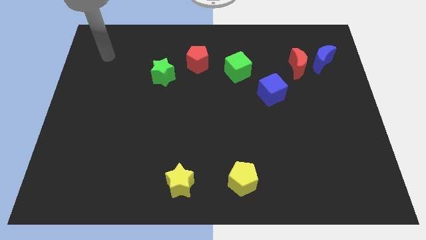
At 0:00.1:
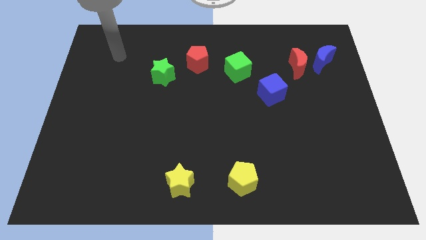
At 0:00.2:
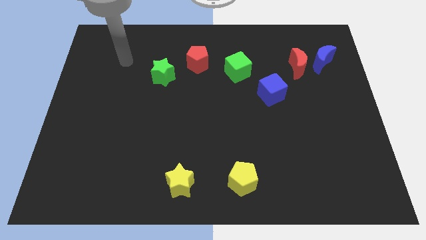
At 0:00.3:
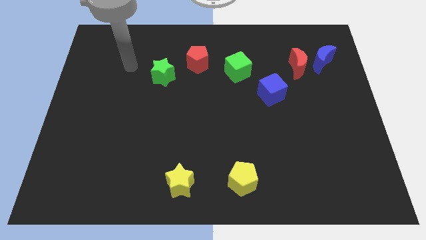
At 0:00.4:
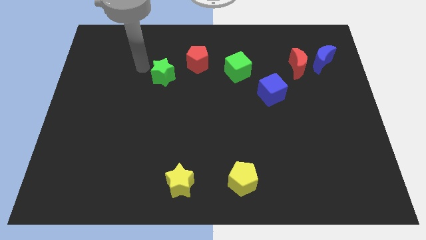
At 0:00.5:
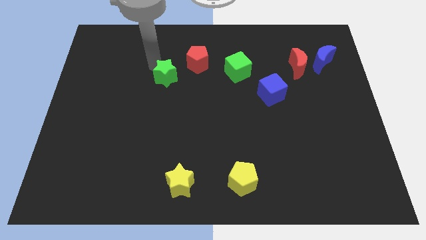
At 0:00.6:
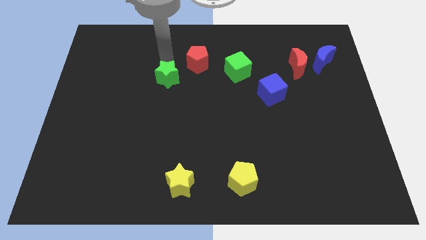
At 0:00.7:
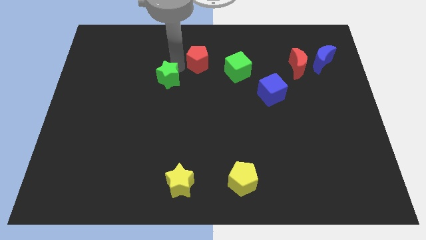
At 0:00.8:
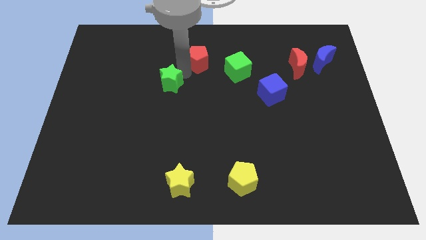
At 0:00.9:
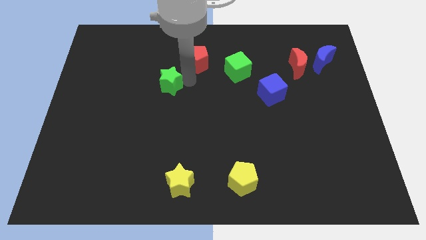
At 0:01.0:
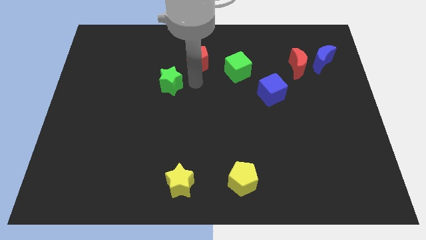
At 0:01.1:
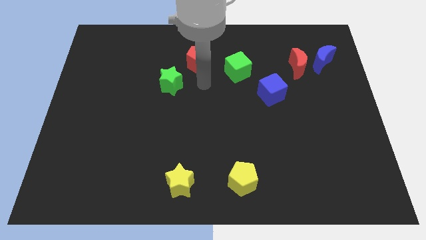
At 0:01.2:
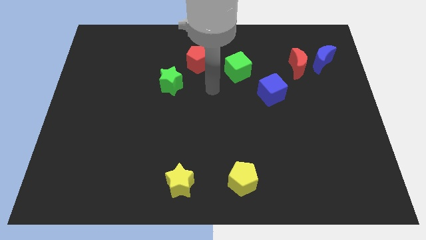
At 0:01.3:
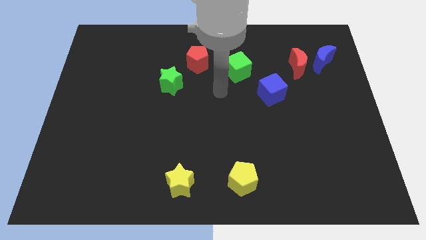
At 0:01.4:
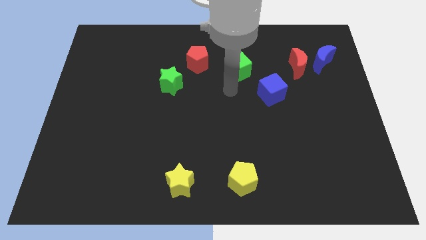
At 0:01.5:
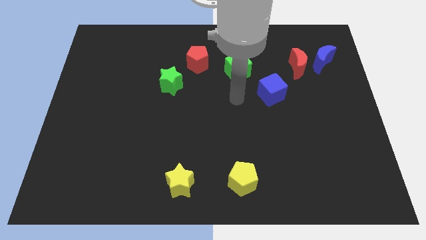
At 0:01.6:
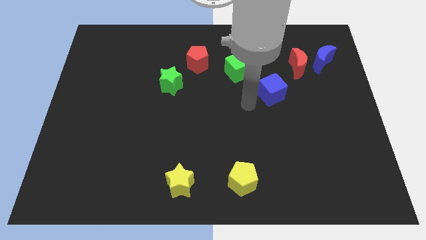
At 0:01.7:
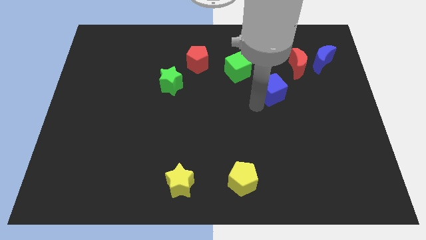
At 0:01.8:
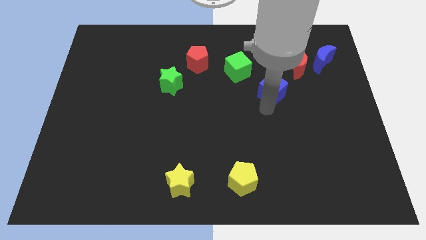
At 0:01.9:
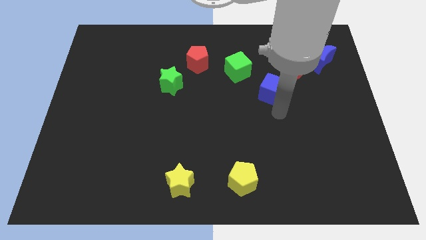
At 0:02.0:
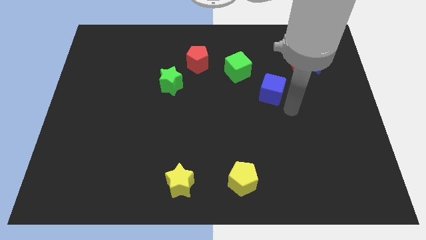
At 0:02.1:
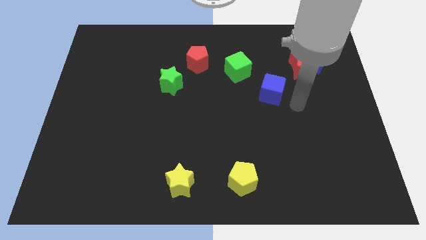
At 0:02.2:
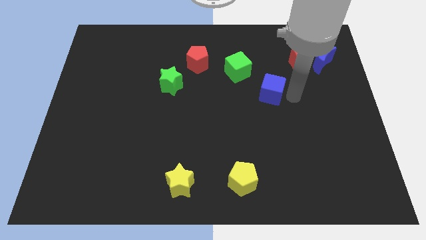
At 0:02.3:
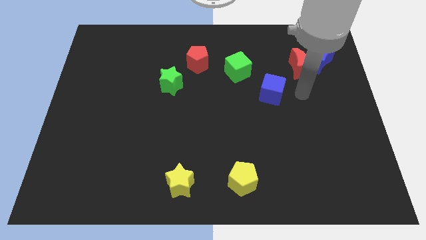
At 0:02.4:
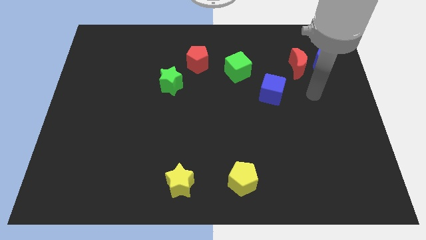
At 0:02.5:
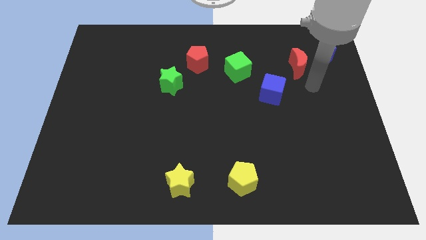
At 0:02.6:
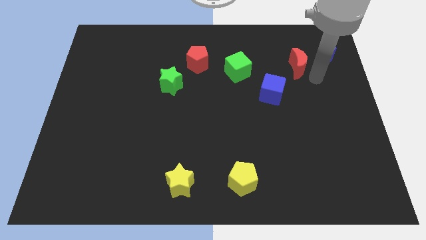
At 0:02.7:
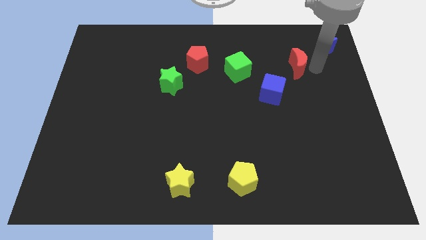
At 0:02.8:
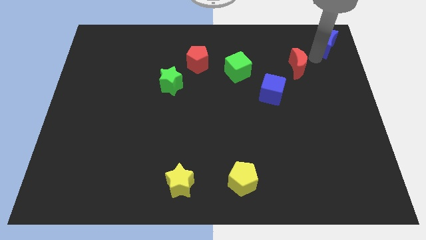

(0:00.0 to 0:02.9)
pull the red moon apart from the blue moon

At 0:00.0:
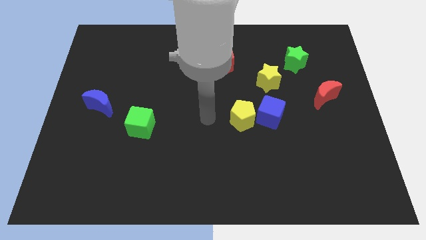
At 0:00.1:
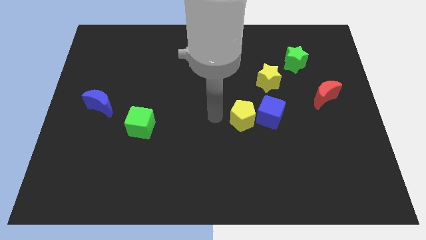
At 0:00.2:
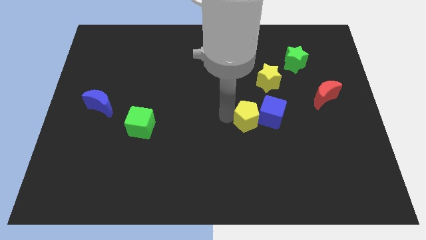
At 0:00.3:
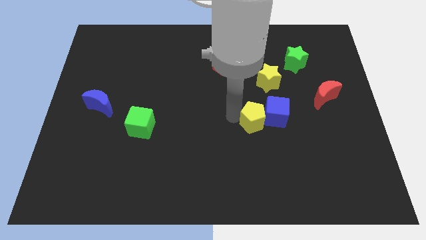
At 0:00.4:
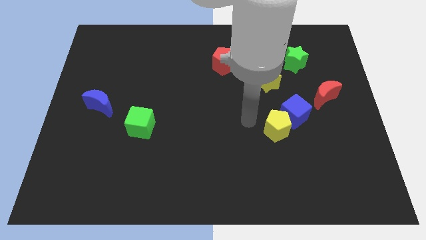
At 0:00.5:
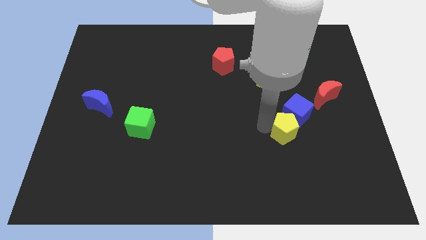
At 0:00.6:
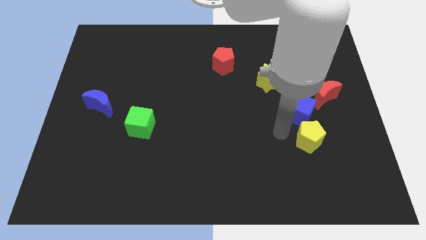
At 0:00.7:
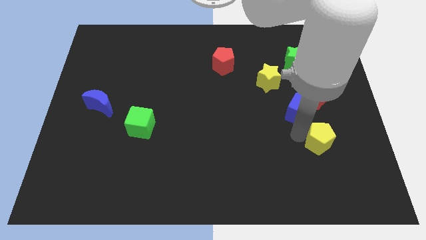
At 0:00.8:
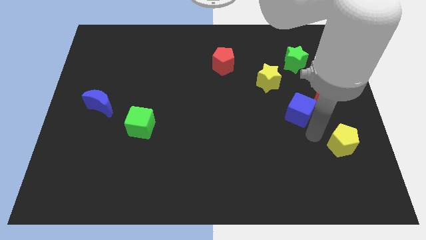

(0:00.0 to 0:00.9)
separate the blue cube from the yellow pentagon

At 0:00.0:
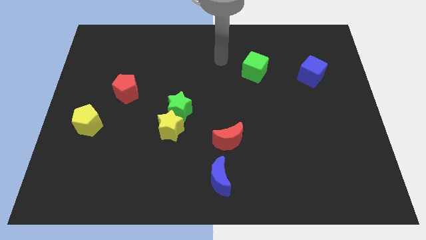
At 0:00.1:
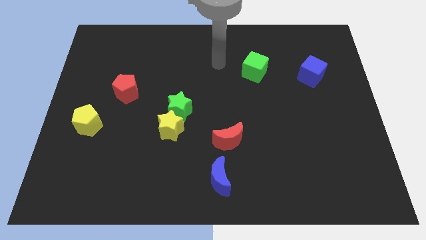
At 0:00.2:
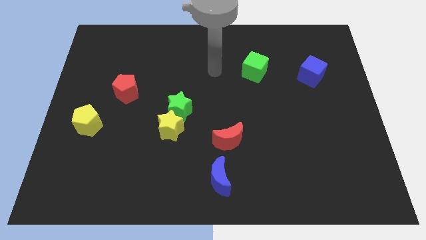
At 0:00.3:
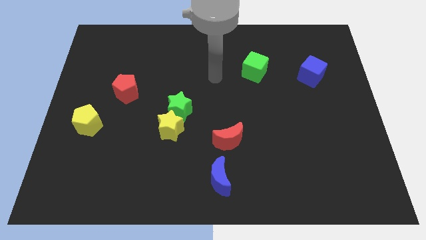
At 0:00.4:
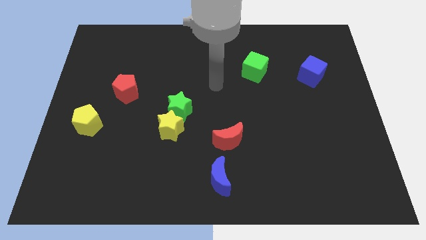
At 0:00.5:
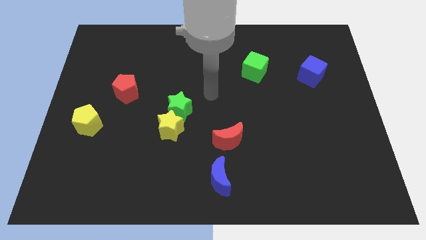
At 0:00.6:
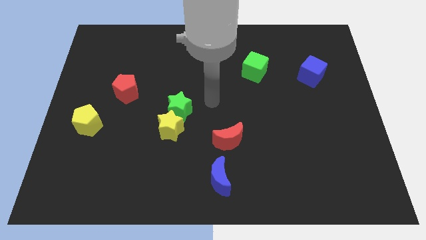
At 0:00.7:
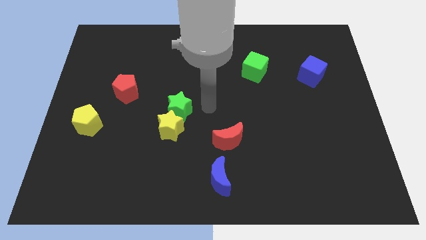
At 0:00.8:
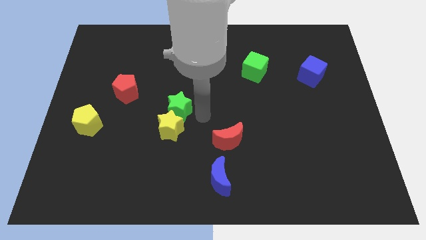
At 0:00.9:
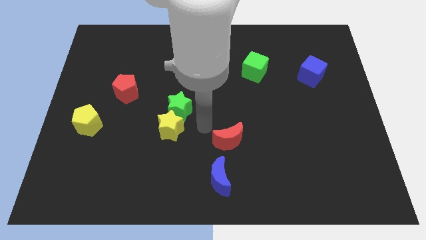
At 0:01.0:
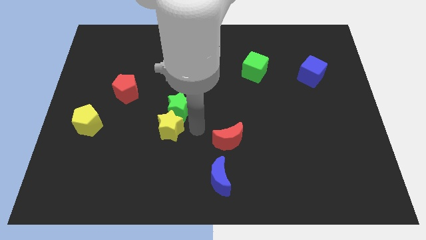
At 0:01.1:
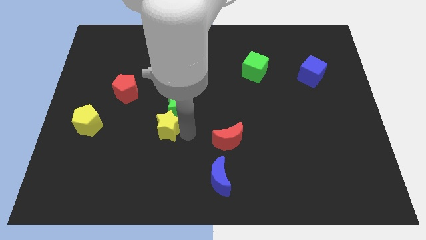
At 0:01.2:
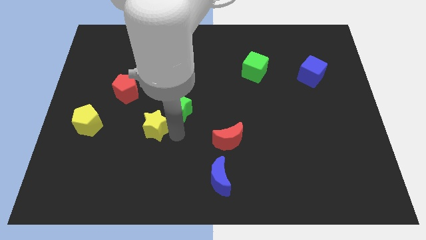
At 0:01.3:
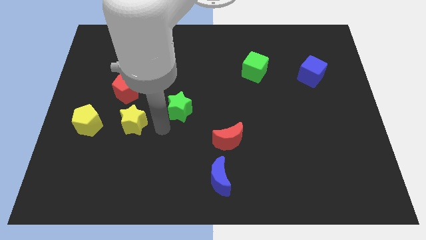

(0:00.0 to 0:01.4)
separate the green star from the yellow star

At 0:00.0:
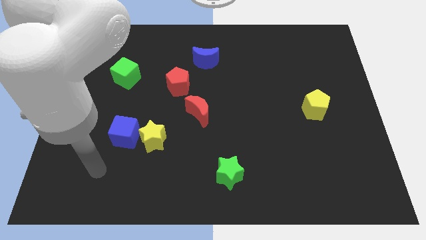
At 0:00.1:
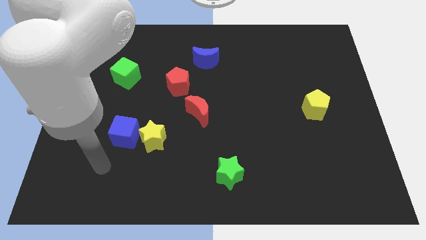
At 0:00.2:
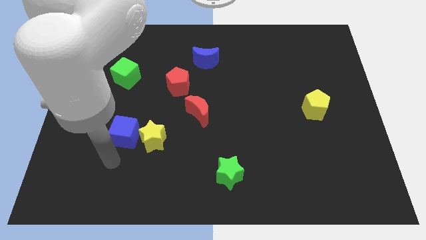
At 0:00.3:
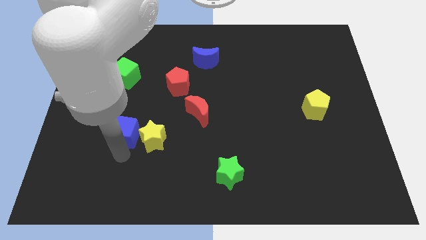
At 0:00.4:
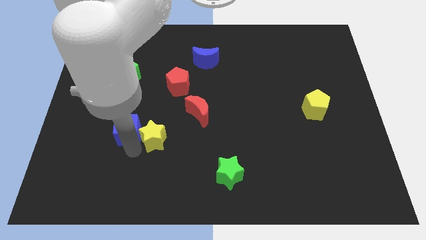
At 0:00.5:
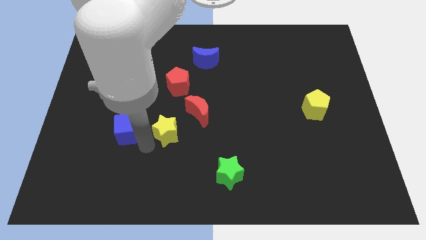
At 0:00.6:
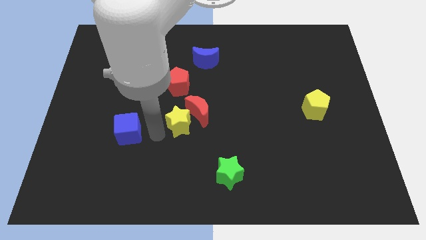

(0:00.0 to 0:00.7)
pull the blue cube apart from the yellow star

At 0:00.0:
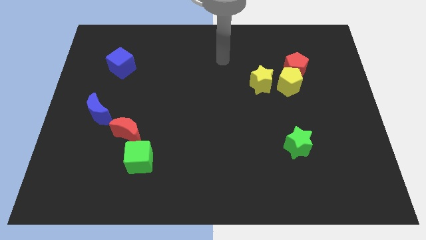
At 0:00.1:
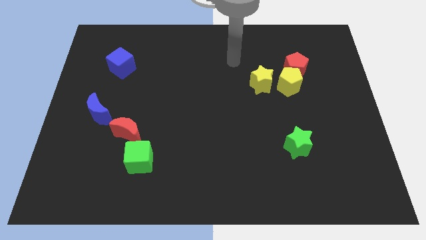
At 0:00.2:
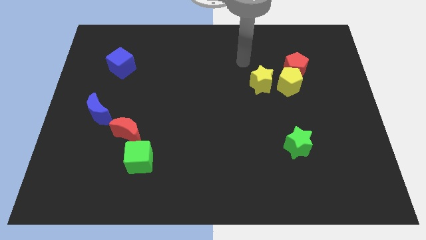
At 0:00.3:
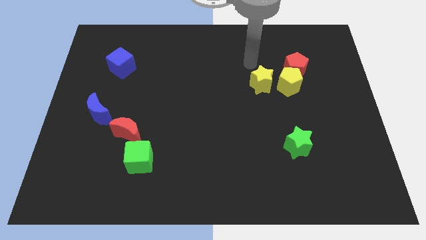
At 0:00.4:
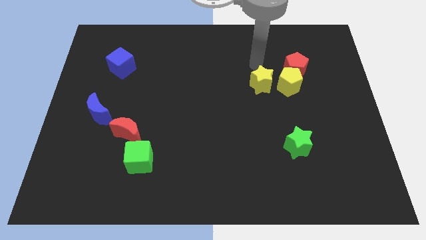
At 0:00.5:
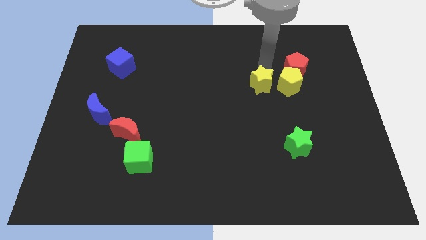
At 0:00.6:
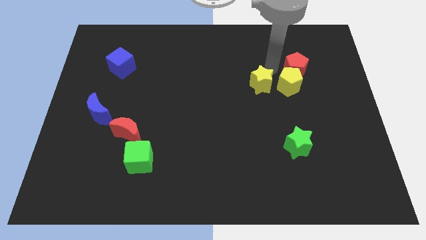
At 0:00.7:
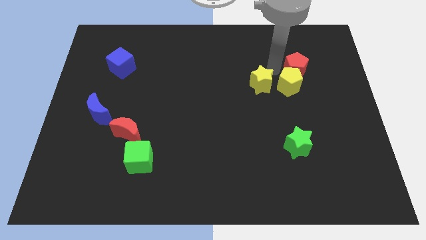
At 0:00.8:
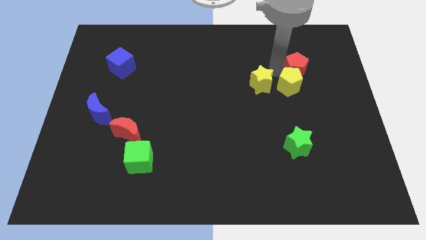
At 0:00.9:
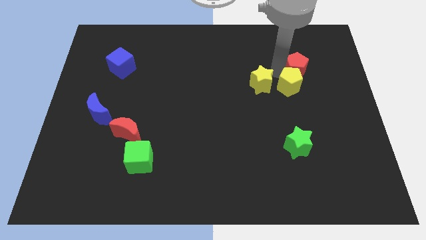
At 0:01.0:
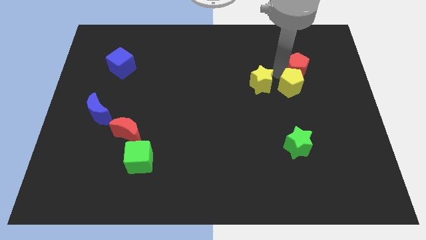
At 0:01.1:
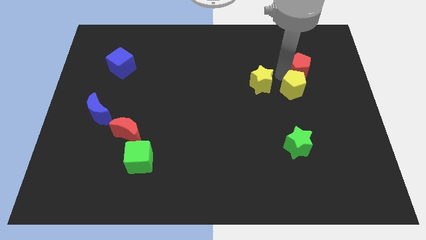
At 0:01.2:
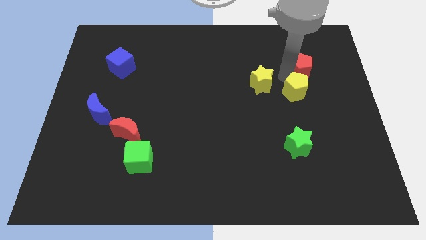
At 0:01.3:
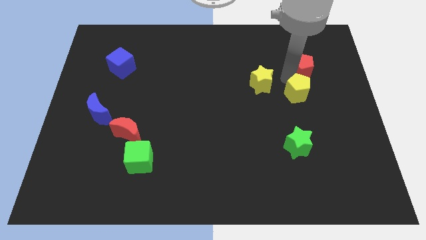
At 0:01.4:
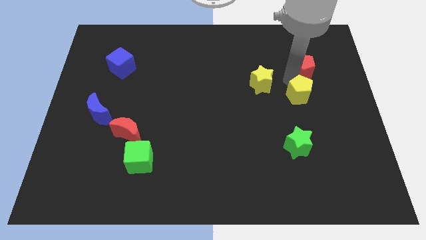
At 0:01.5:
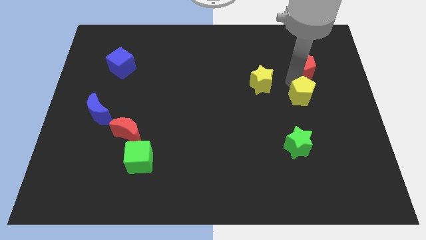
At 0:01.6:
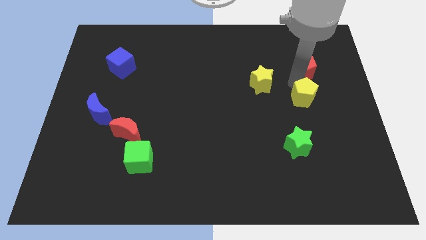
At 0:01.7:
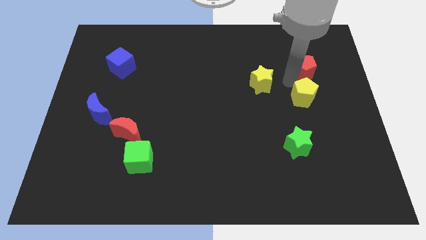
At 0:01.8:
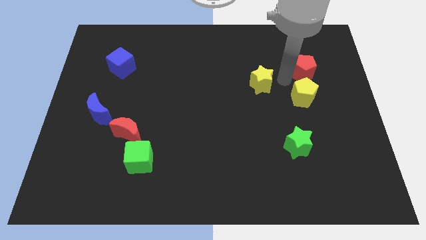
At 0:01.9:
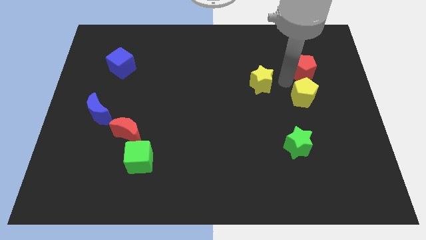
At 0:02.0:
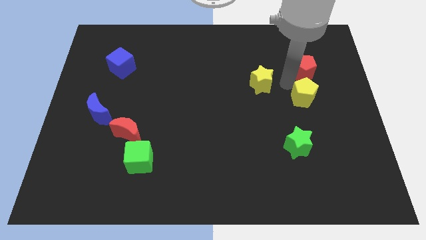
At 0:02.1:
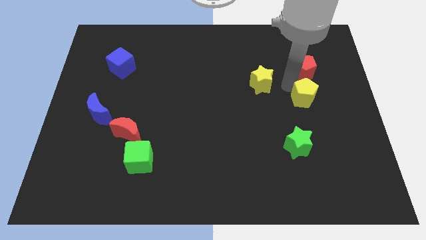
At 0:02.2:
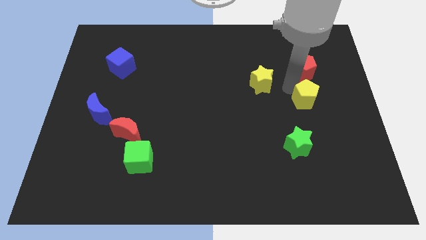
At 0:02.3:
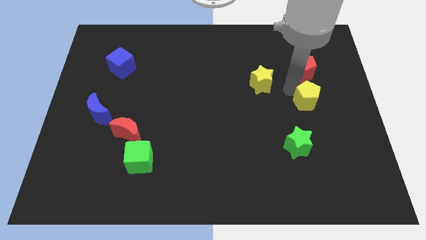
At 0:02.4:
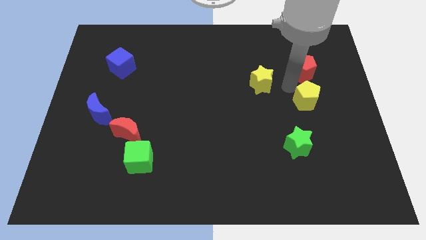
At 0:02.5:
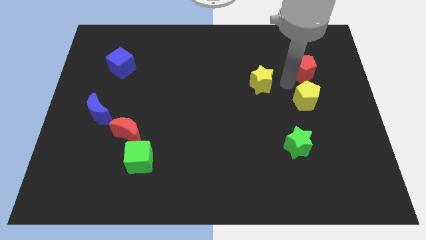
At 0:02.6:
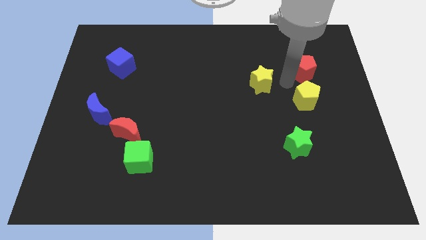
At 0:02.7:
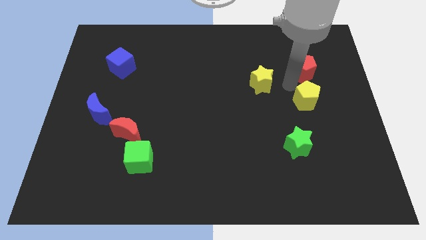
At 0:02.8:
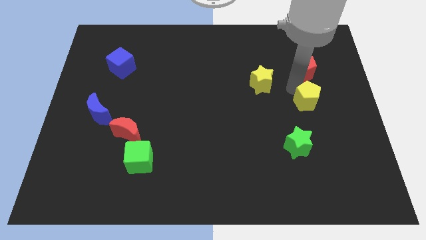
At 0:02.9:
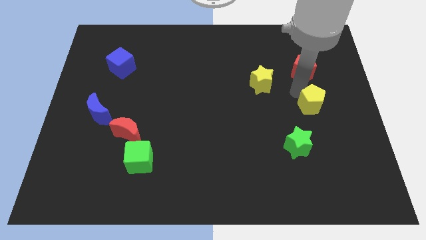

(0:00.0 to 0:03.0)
move the yellow pentagon away from the red pentagon and yellow star

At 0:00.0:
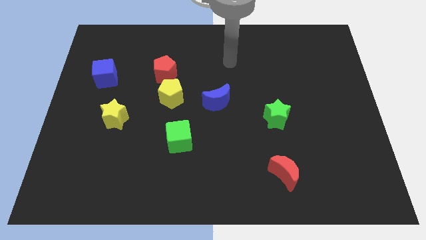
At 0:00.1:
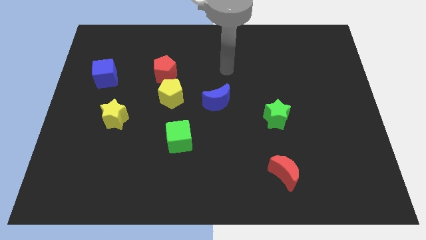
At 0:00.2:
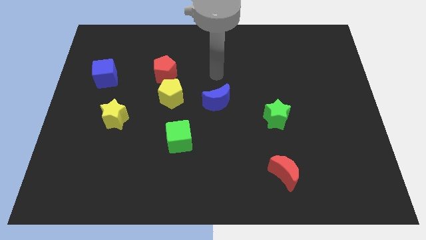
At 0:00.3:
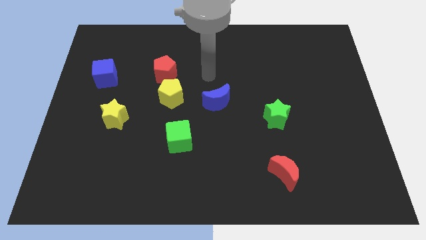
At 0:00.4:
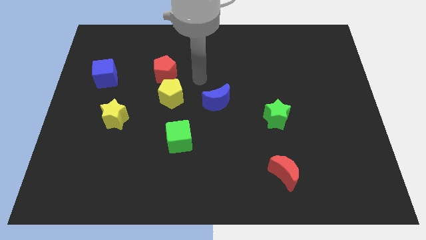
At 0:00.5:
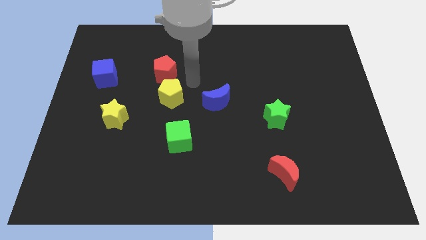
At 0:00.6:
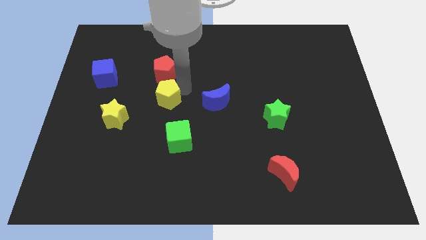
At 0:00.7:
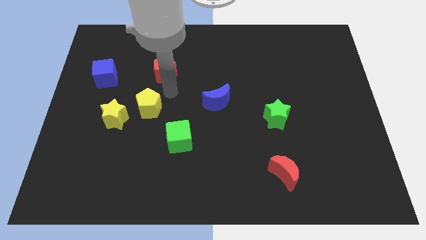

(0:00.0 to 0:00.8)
separate the red pentagon from the yellow pentagon
